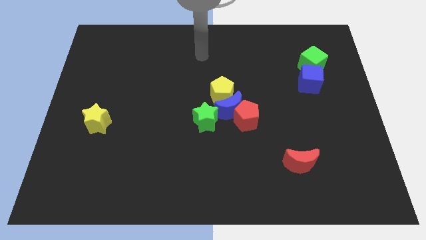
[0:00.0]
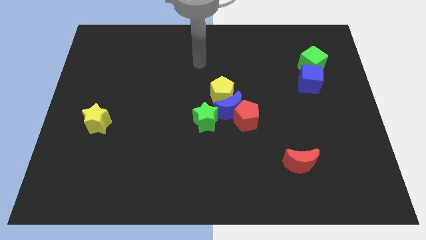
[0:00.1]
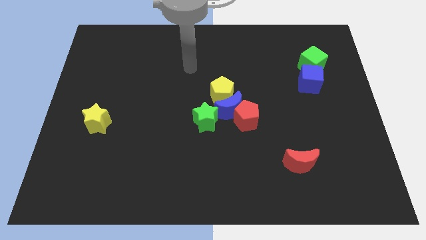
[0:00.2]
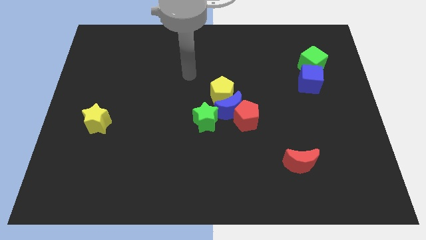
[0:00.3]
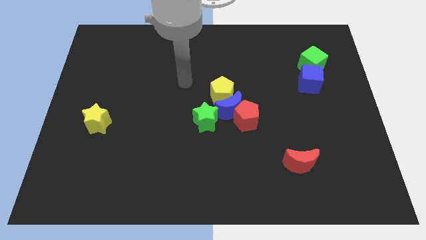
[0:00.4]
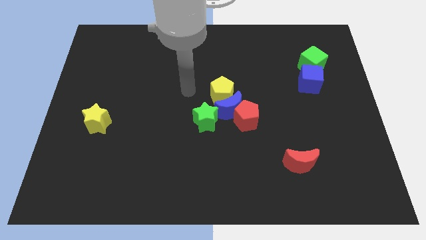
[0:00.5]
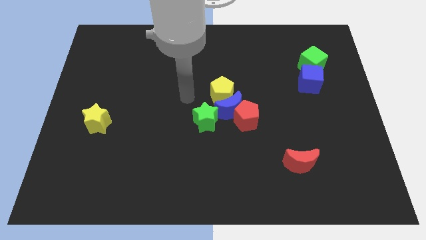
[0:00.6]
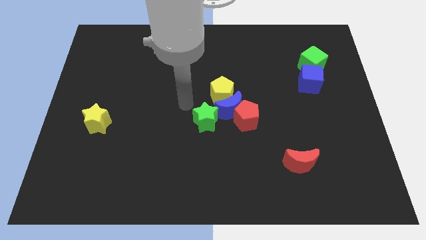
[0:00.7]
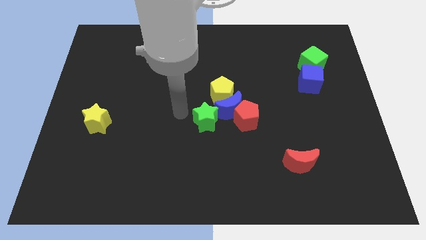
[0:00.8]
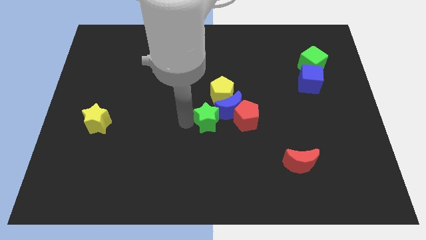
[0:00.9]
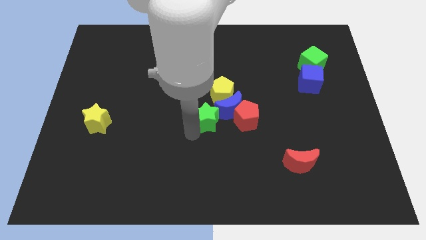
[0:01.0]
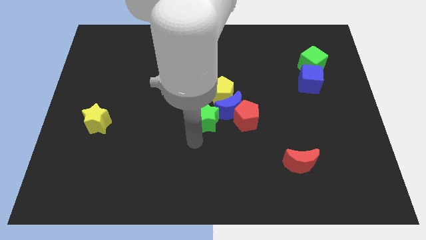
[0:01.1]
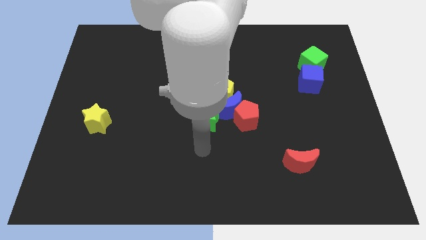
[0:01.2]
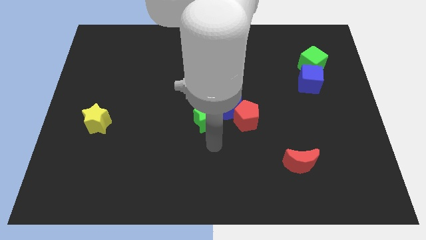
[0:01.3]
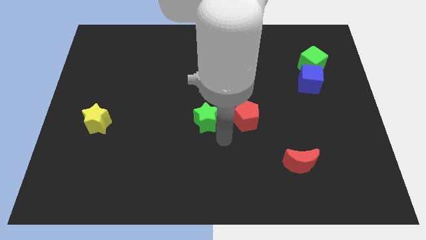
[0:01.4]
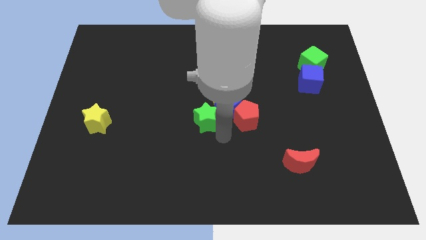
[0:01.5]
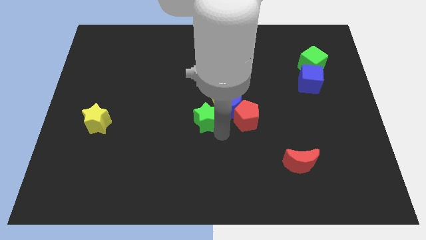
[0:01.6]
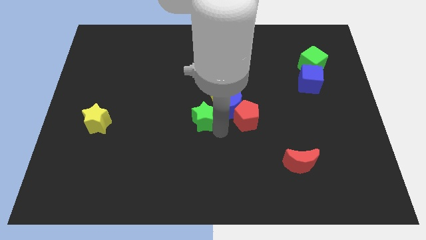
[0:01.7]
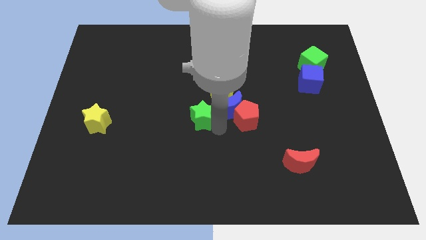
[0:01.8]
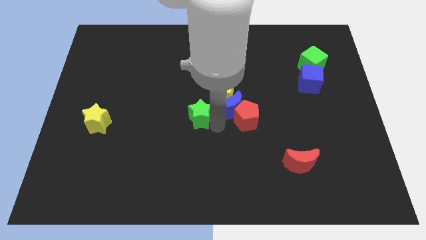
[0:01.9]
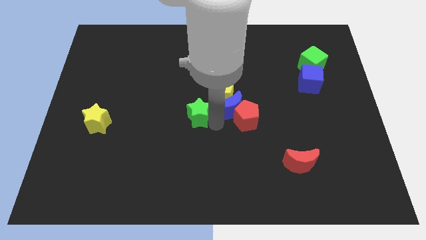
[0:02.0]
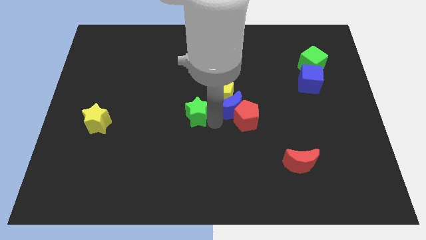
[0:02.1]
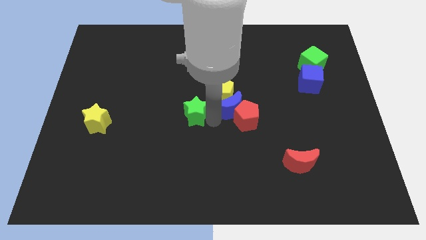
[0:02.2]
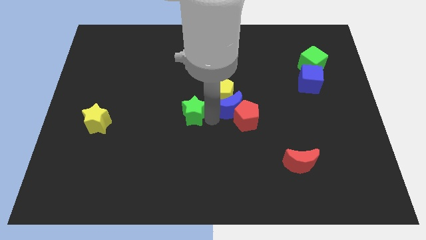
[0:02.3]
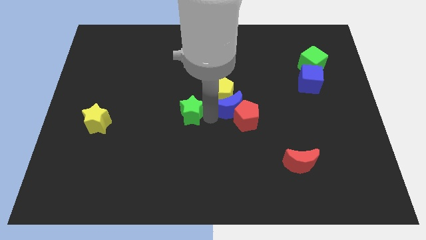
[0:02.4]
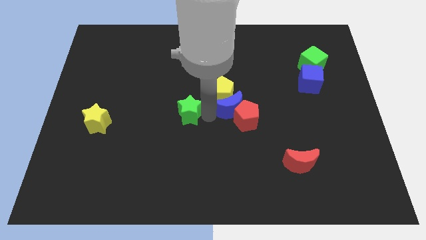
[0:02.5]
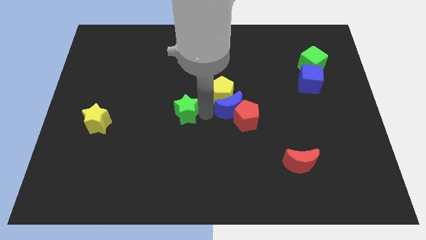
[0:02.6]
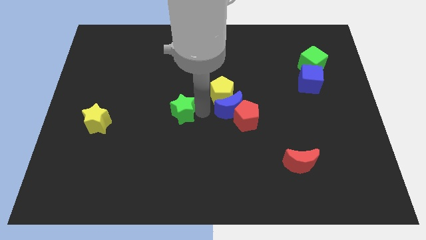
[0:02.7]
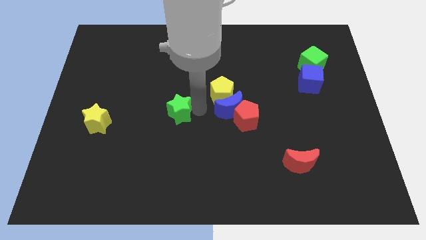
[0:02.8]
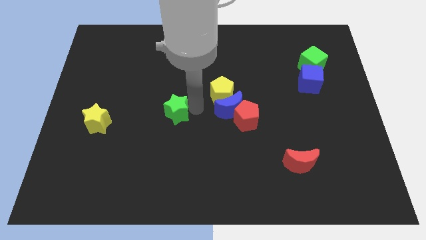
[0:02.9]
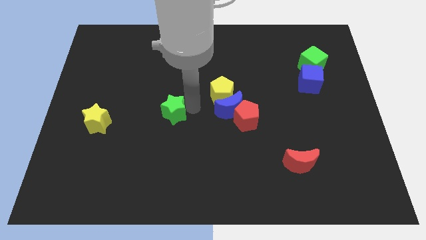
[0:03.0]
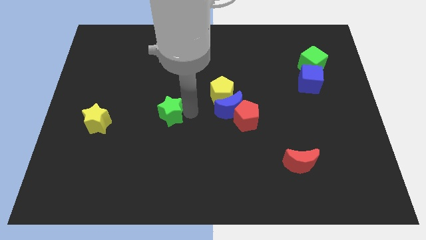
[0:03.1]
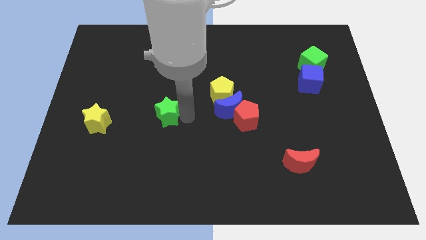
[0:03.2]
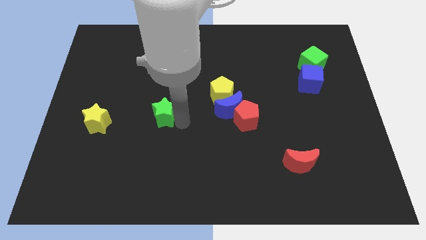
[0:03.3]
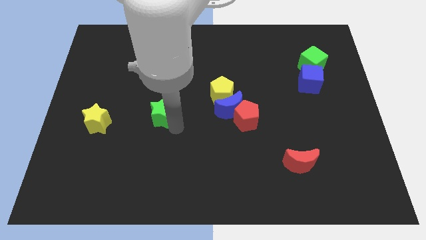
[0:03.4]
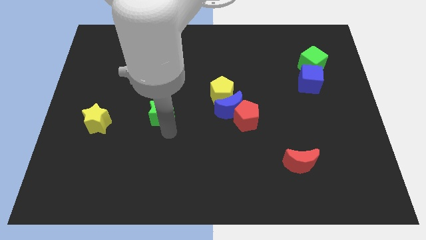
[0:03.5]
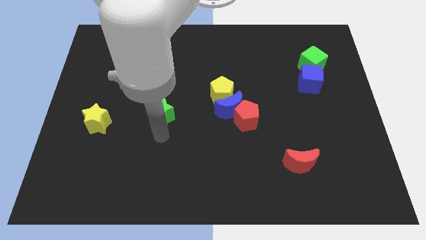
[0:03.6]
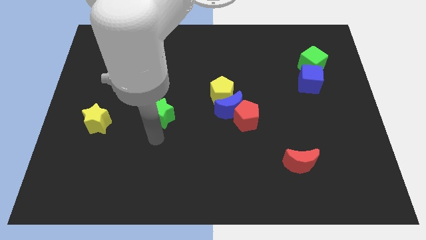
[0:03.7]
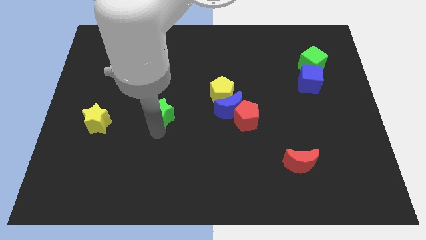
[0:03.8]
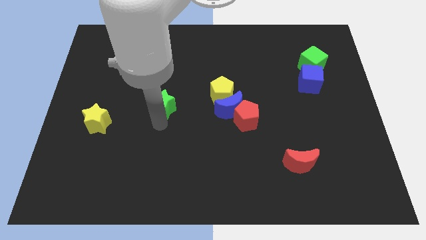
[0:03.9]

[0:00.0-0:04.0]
push the green star slightly upwards and to the left diagonally

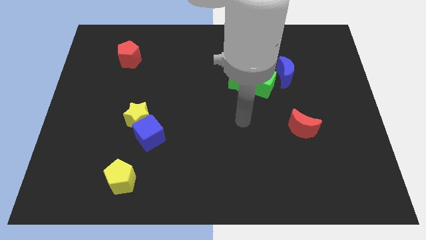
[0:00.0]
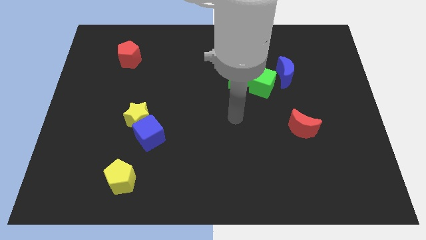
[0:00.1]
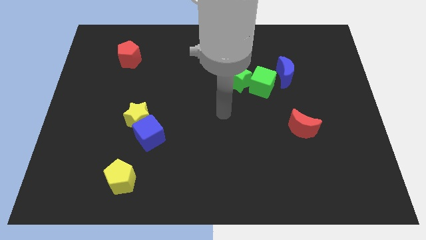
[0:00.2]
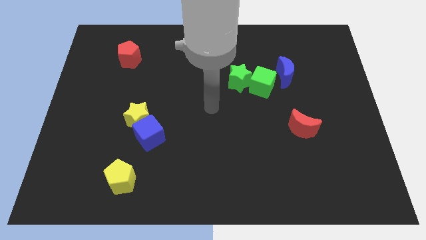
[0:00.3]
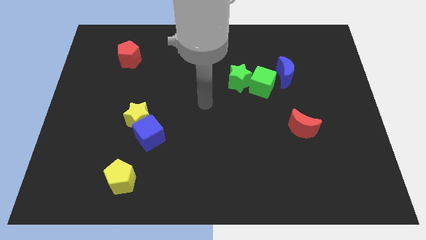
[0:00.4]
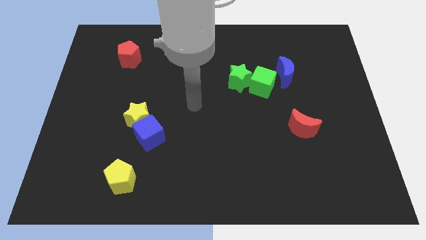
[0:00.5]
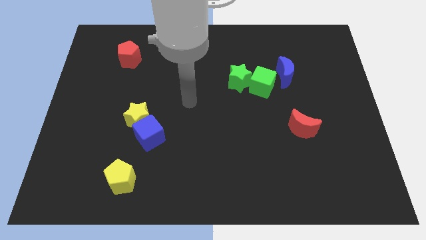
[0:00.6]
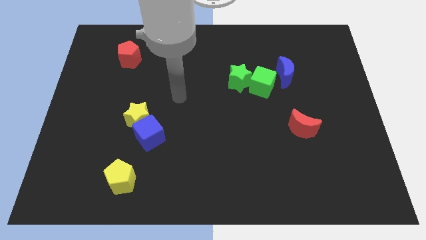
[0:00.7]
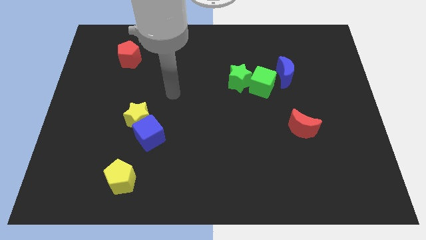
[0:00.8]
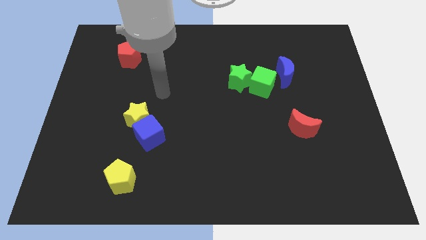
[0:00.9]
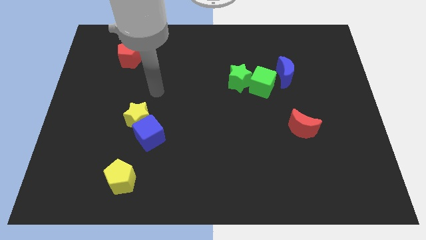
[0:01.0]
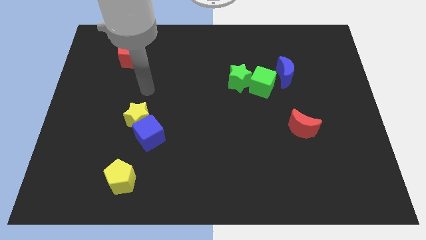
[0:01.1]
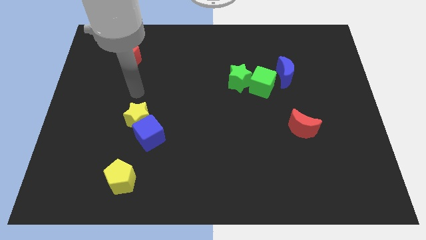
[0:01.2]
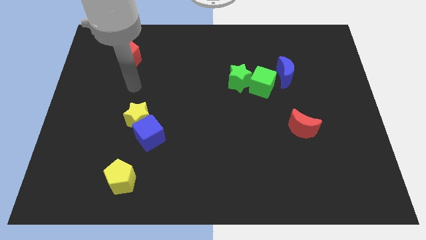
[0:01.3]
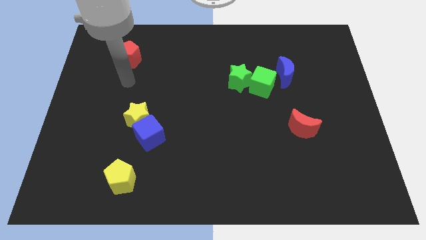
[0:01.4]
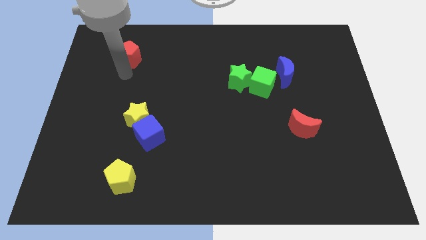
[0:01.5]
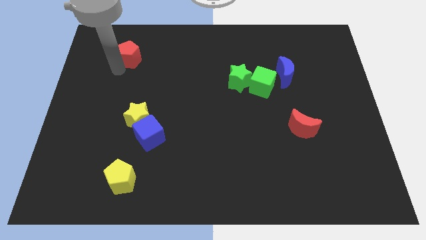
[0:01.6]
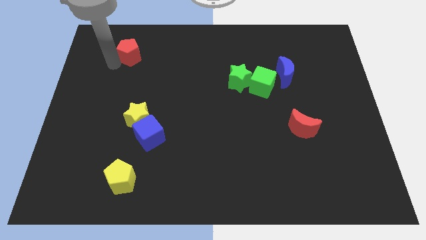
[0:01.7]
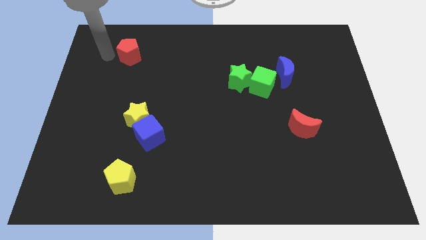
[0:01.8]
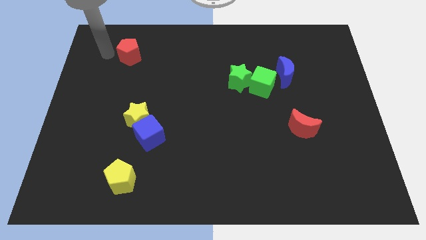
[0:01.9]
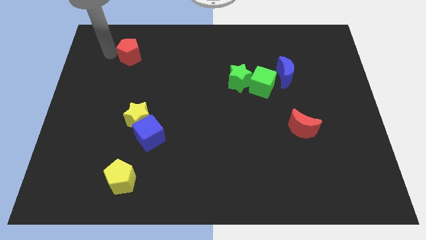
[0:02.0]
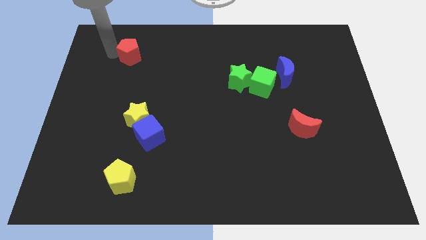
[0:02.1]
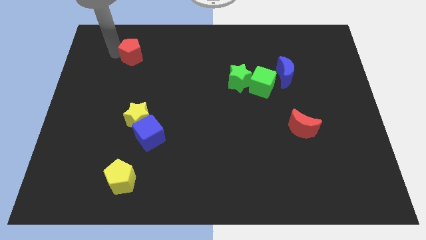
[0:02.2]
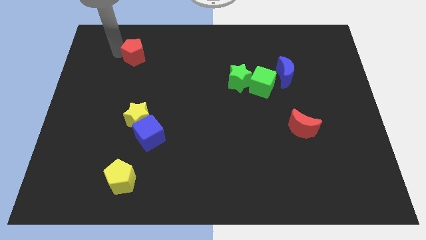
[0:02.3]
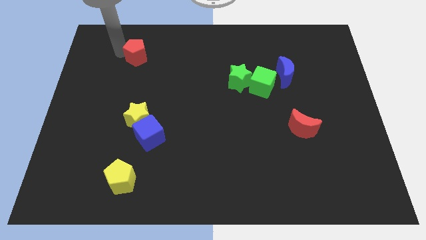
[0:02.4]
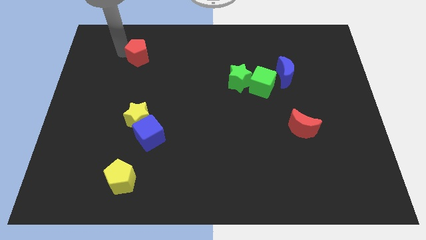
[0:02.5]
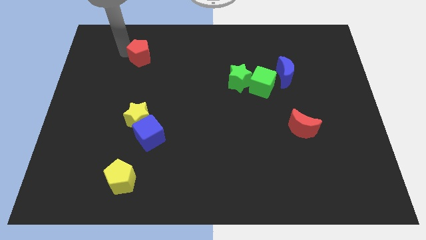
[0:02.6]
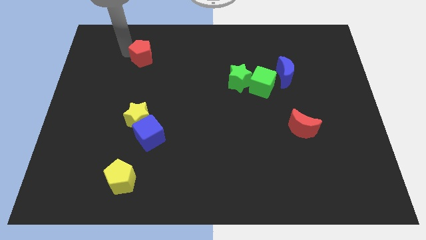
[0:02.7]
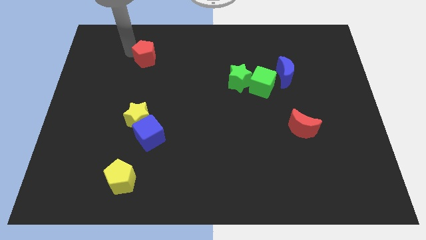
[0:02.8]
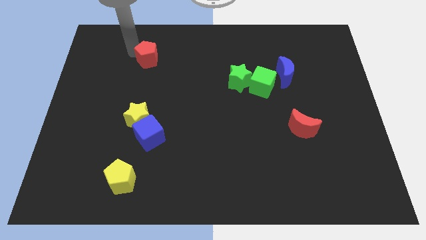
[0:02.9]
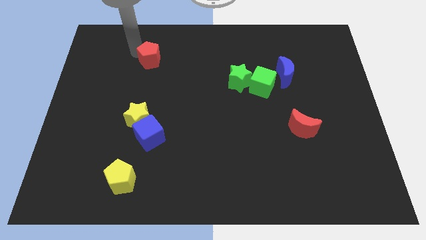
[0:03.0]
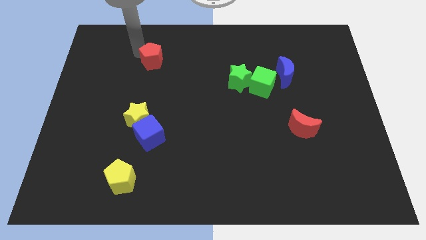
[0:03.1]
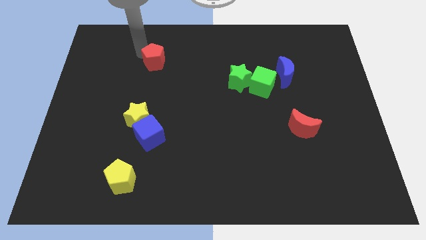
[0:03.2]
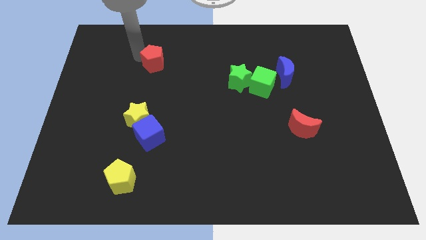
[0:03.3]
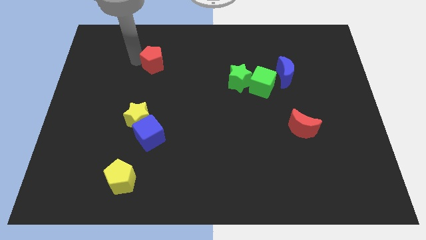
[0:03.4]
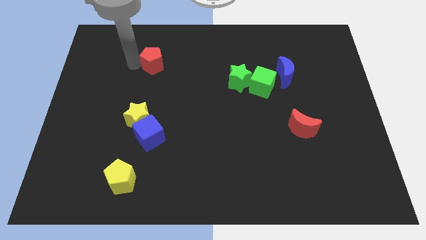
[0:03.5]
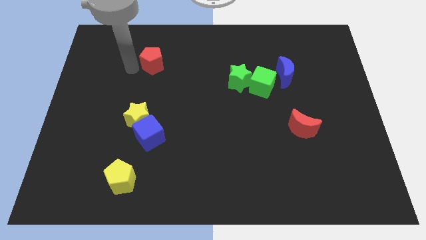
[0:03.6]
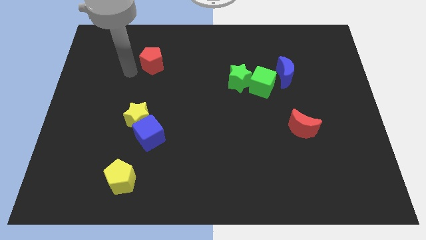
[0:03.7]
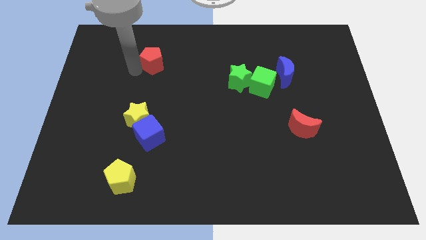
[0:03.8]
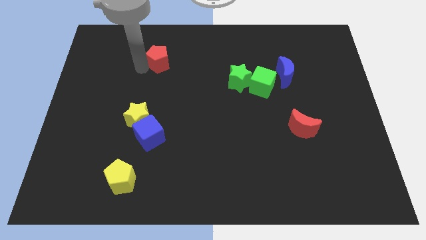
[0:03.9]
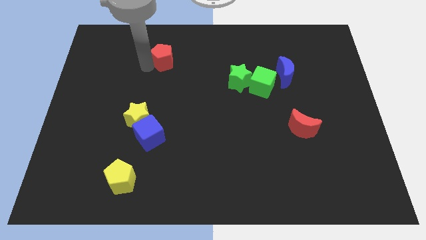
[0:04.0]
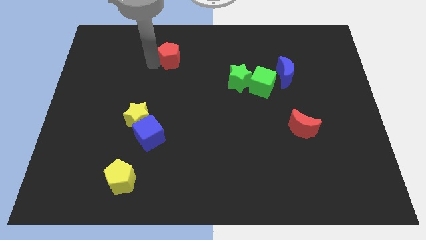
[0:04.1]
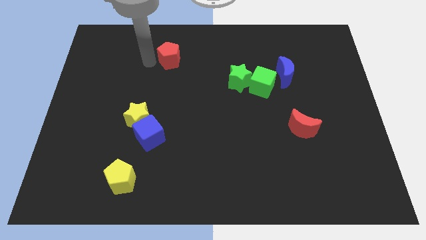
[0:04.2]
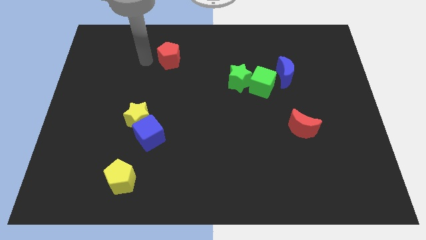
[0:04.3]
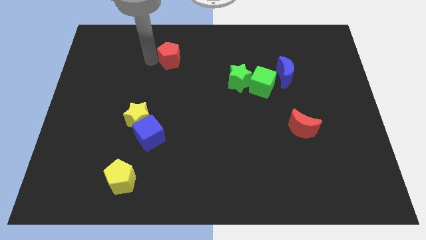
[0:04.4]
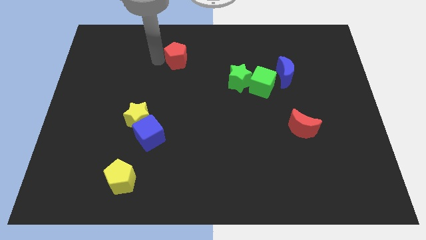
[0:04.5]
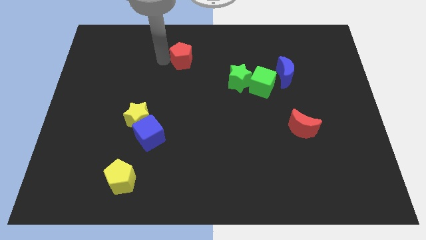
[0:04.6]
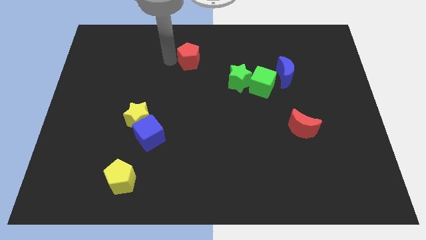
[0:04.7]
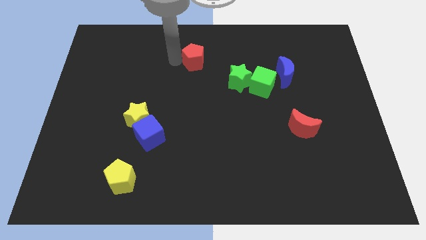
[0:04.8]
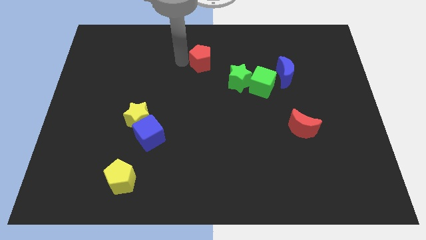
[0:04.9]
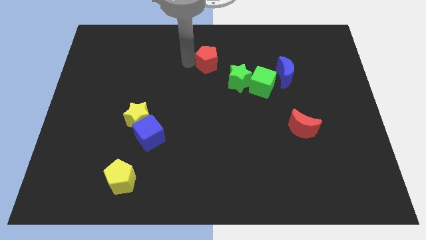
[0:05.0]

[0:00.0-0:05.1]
push the red pentagon right
